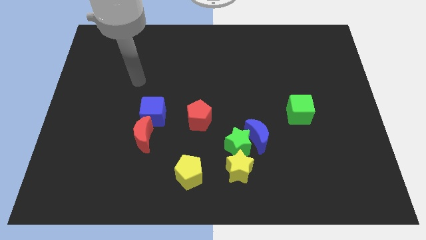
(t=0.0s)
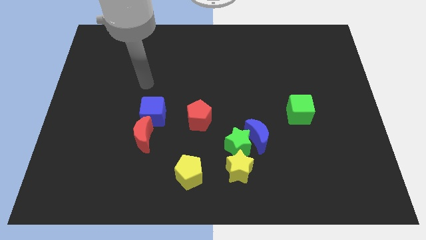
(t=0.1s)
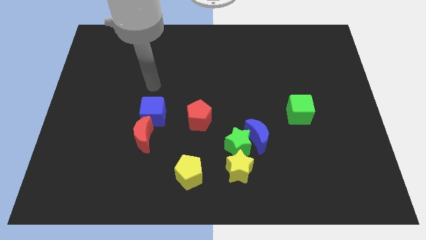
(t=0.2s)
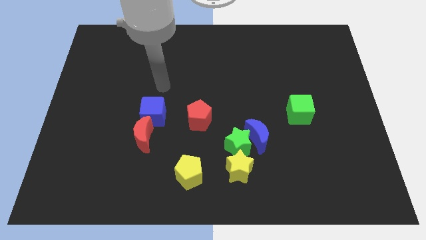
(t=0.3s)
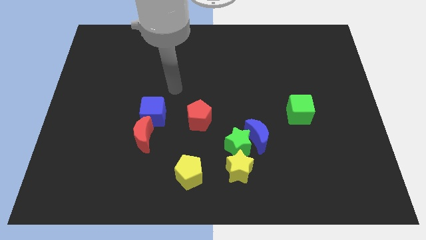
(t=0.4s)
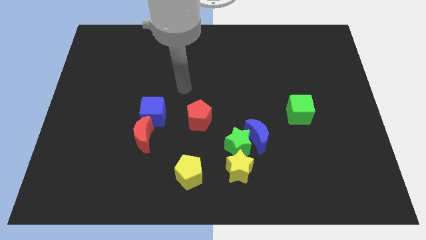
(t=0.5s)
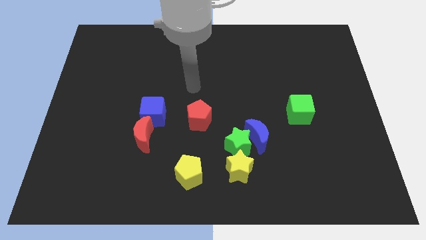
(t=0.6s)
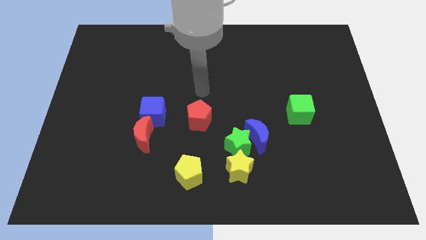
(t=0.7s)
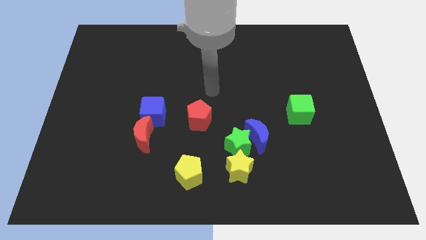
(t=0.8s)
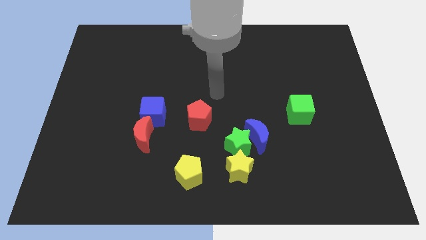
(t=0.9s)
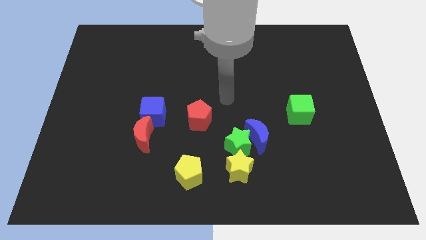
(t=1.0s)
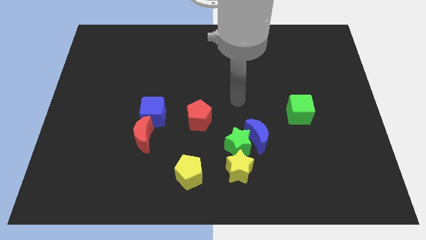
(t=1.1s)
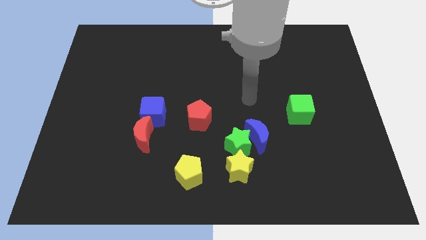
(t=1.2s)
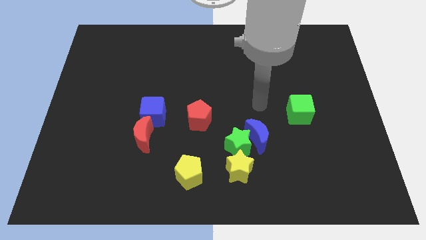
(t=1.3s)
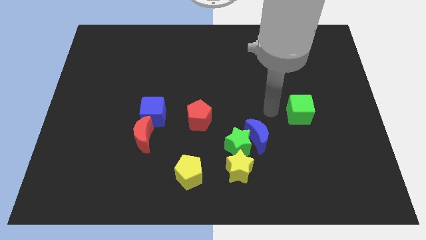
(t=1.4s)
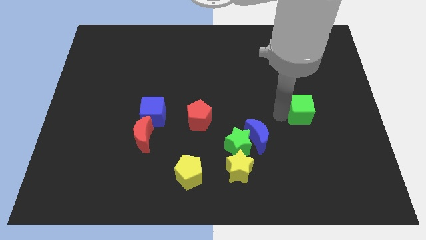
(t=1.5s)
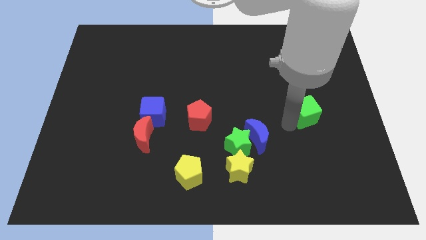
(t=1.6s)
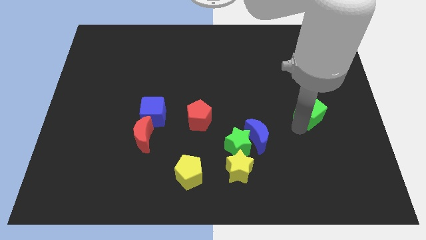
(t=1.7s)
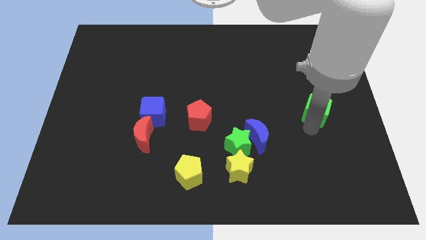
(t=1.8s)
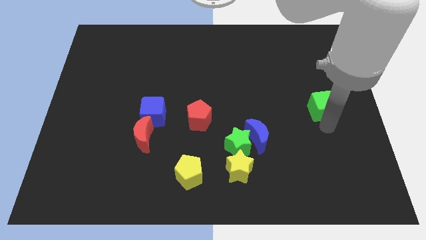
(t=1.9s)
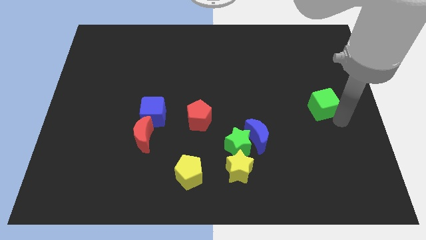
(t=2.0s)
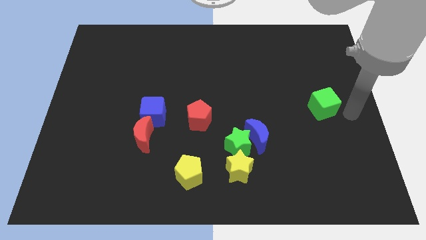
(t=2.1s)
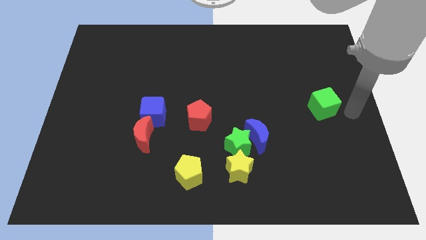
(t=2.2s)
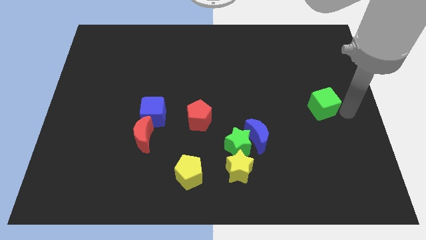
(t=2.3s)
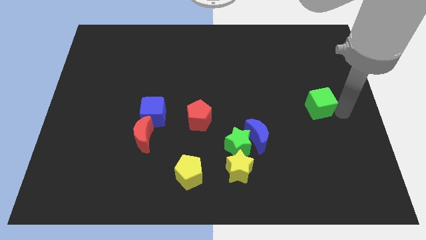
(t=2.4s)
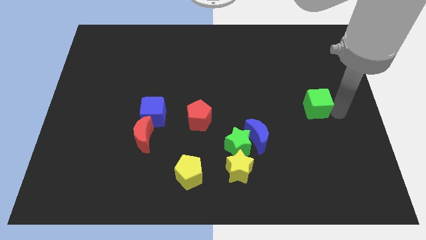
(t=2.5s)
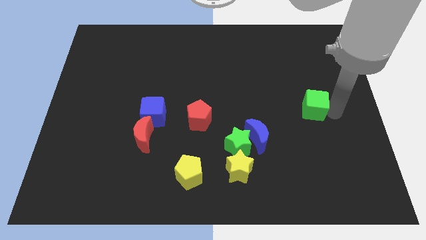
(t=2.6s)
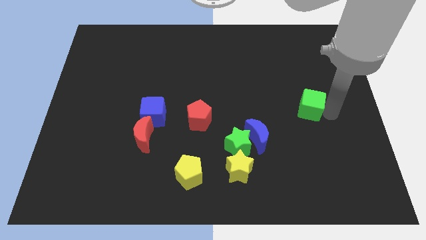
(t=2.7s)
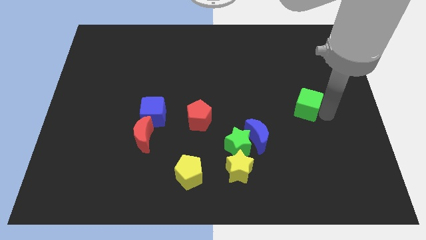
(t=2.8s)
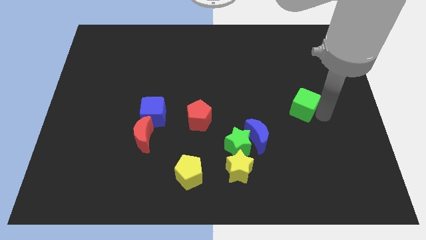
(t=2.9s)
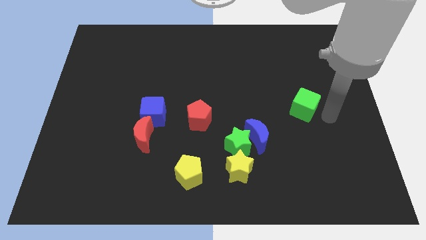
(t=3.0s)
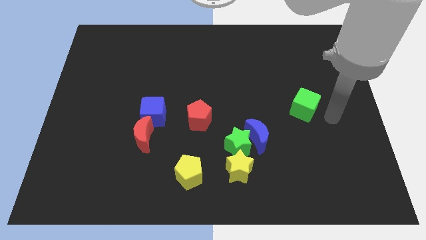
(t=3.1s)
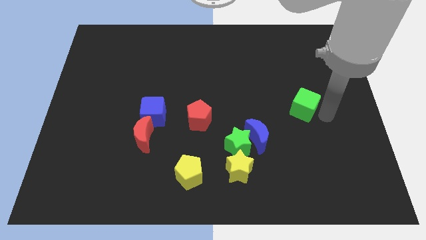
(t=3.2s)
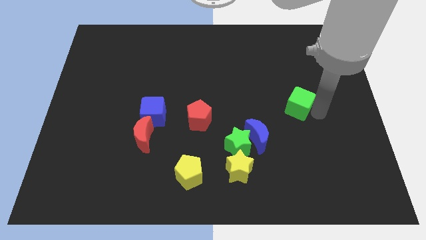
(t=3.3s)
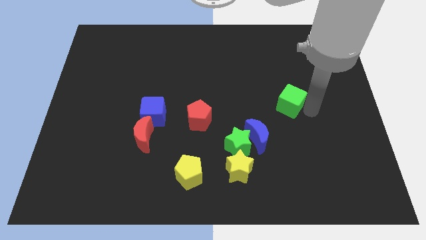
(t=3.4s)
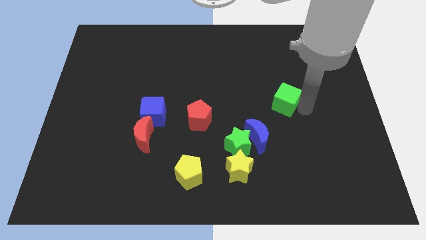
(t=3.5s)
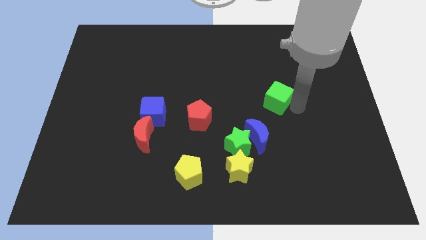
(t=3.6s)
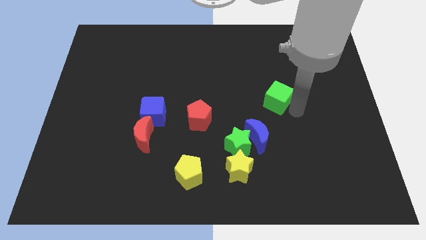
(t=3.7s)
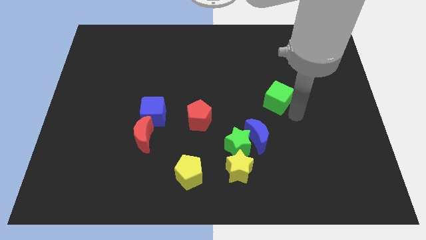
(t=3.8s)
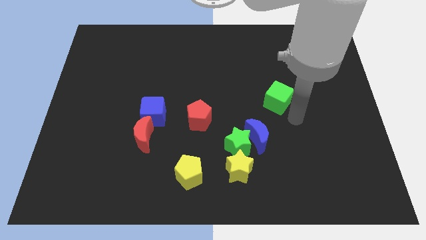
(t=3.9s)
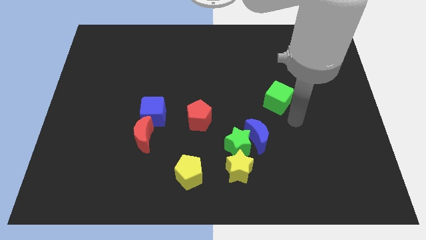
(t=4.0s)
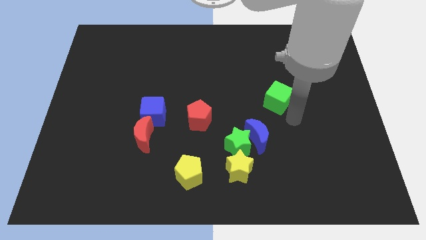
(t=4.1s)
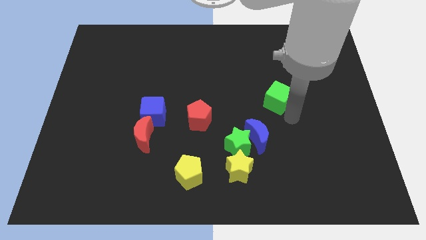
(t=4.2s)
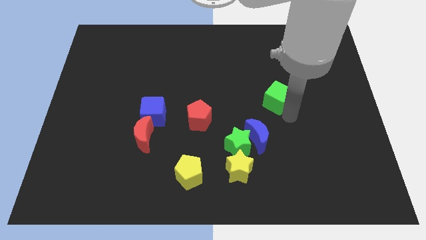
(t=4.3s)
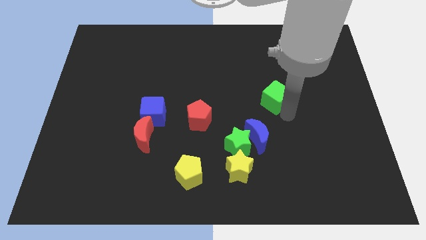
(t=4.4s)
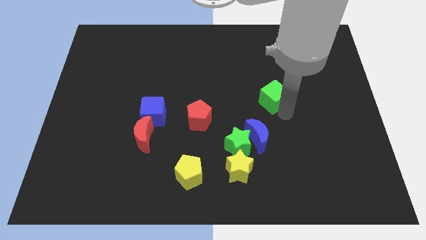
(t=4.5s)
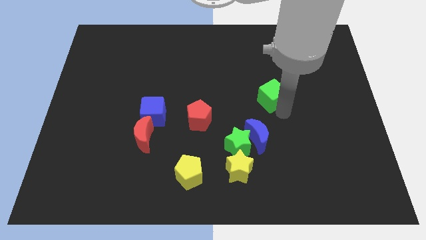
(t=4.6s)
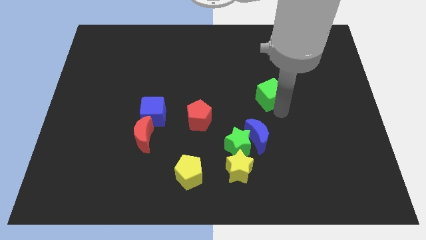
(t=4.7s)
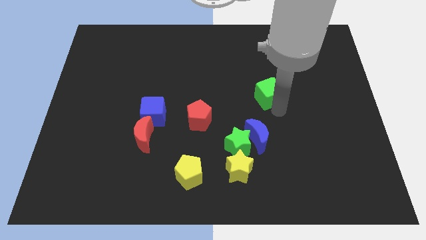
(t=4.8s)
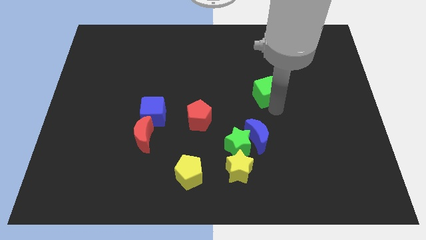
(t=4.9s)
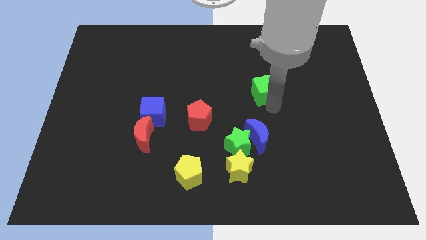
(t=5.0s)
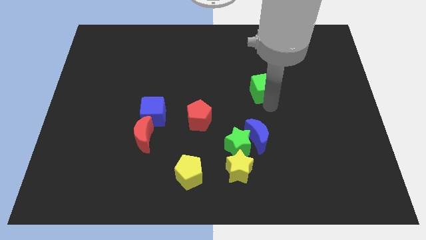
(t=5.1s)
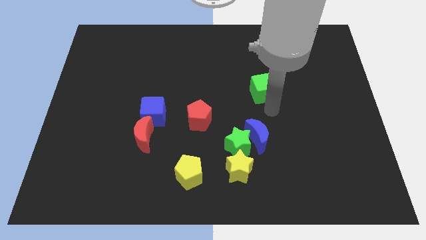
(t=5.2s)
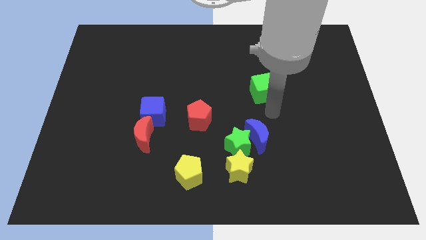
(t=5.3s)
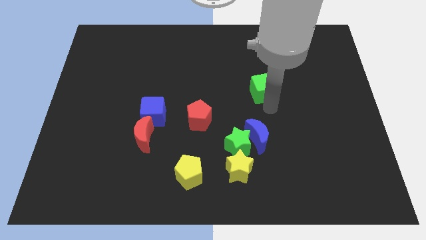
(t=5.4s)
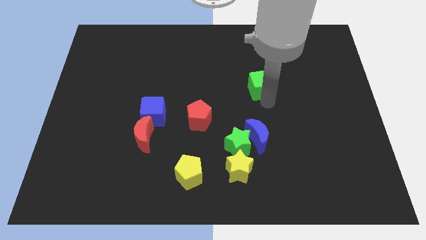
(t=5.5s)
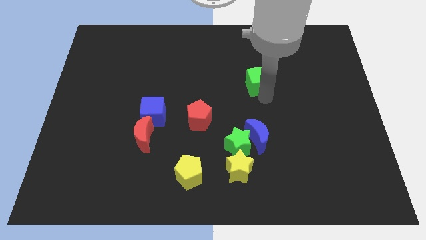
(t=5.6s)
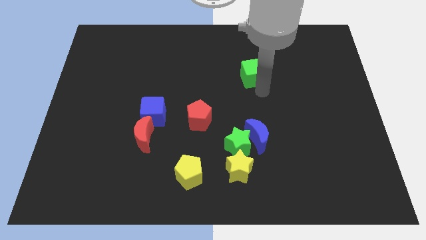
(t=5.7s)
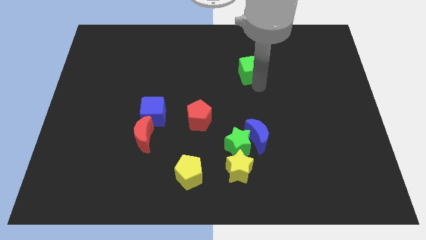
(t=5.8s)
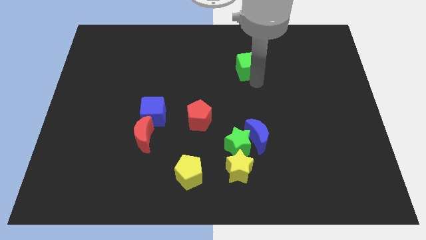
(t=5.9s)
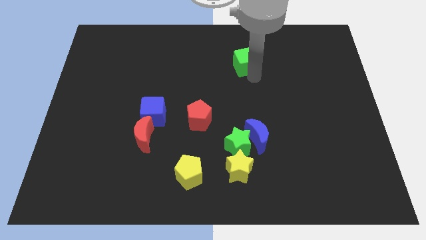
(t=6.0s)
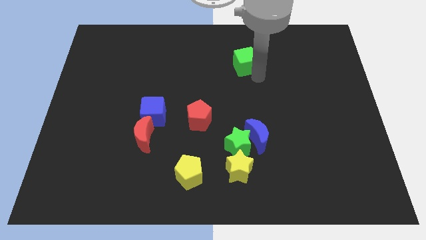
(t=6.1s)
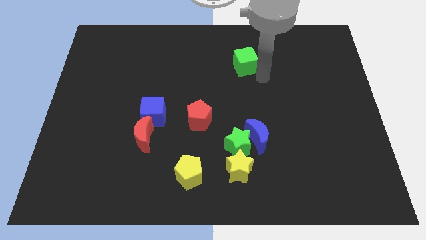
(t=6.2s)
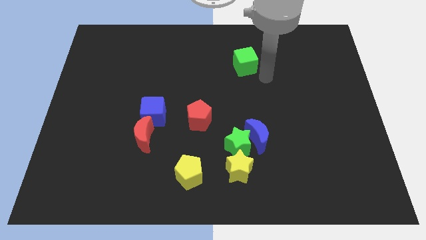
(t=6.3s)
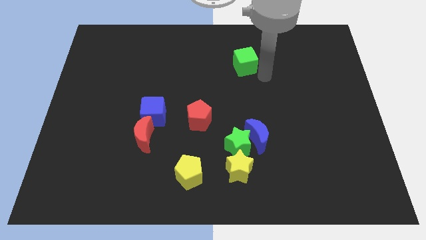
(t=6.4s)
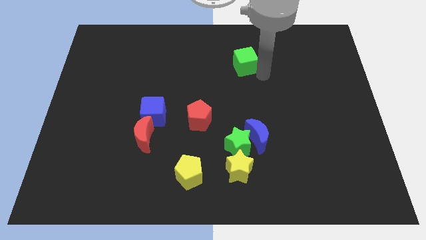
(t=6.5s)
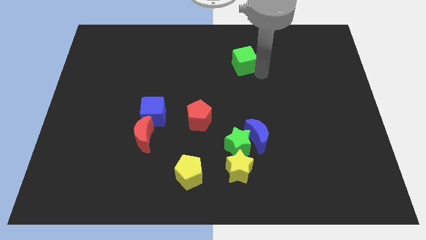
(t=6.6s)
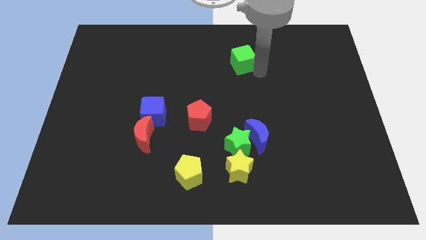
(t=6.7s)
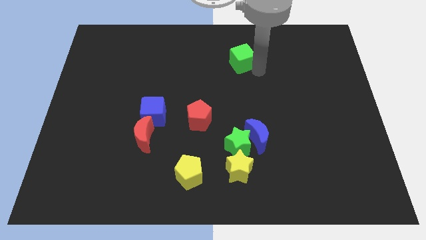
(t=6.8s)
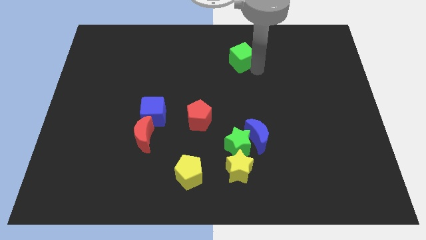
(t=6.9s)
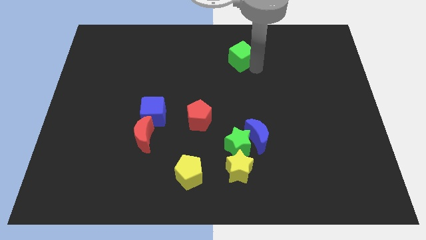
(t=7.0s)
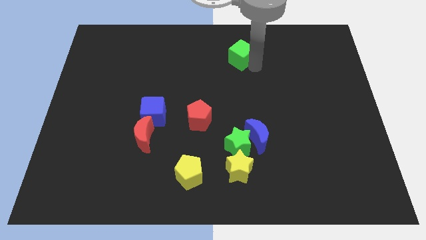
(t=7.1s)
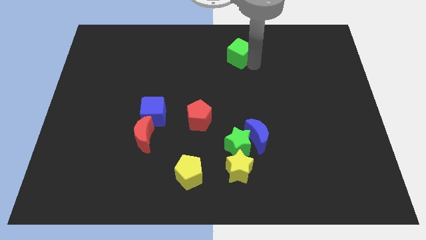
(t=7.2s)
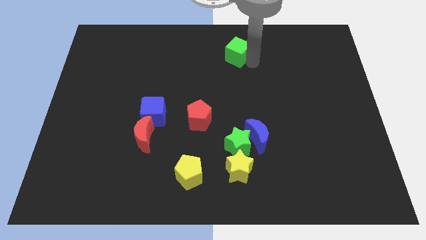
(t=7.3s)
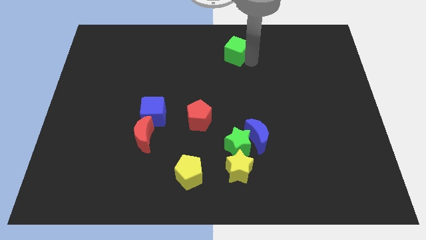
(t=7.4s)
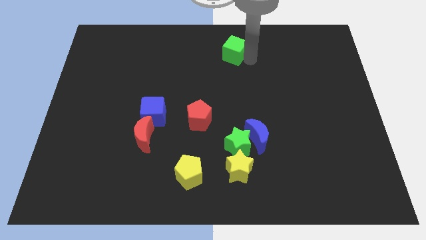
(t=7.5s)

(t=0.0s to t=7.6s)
move the green cube to the top
